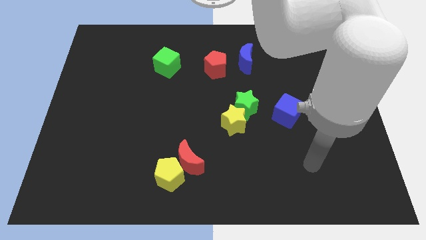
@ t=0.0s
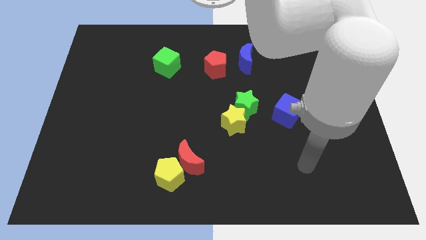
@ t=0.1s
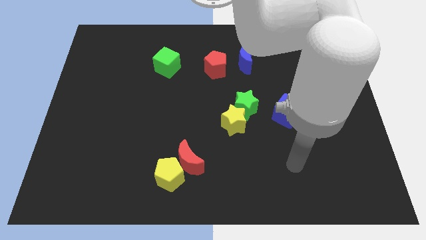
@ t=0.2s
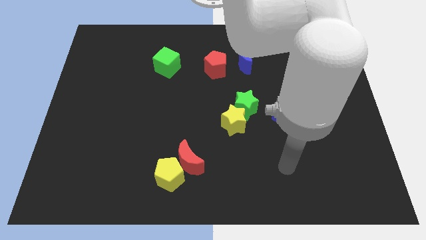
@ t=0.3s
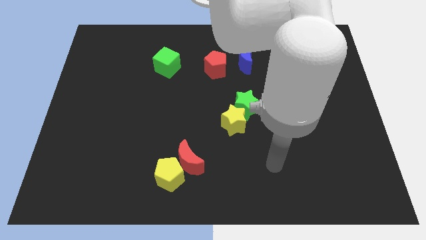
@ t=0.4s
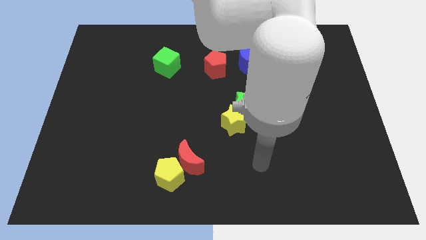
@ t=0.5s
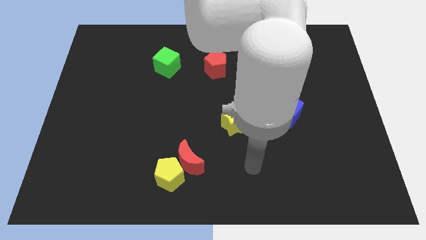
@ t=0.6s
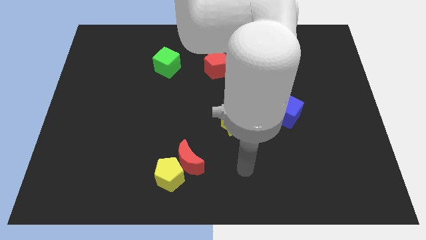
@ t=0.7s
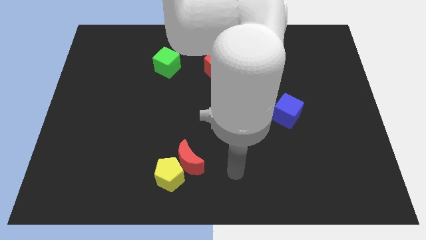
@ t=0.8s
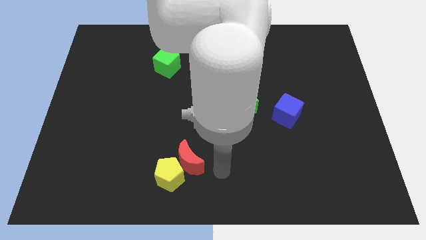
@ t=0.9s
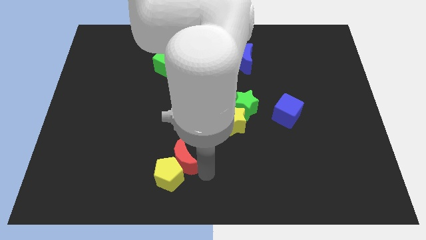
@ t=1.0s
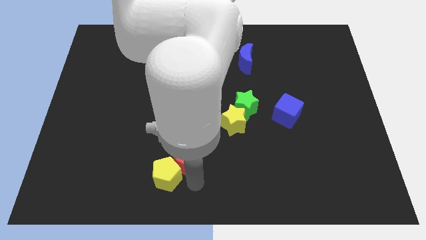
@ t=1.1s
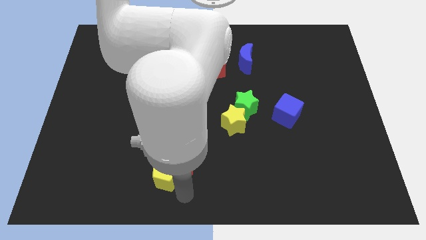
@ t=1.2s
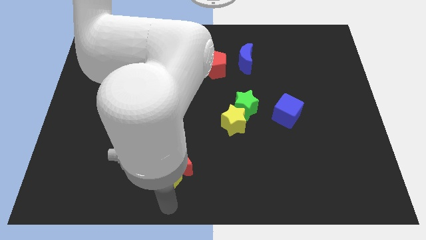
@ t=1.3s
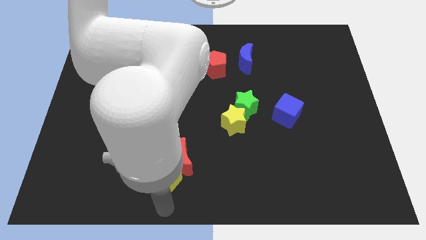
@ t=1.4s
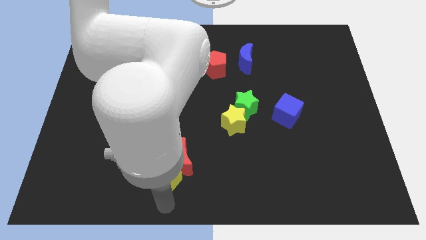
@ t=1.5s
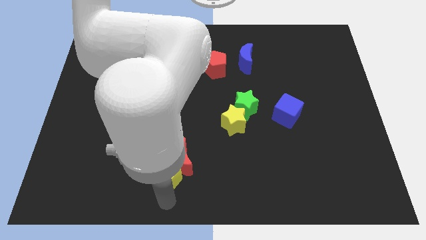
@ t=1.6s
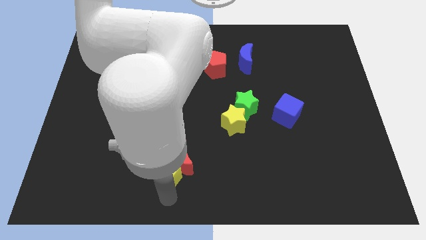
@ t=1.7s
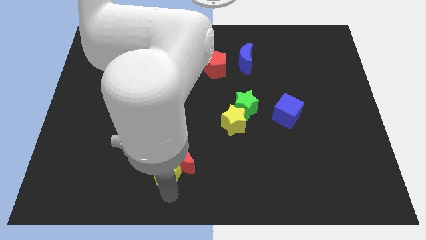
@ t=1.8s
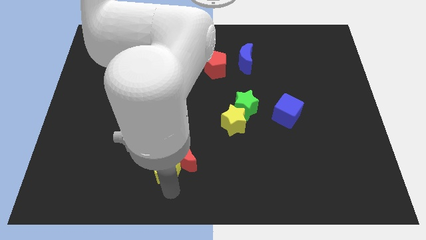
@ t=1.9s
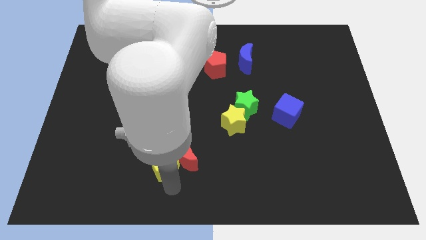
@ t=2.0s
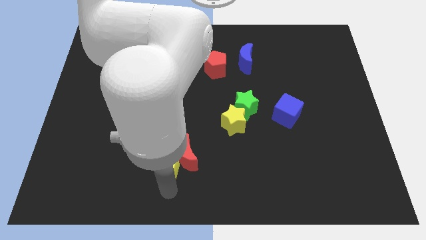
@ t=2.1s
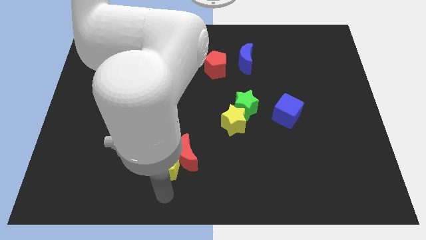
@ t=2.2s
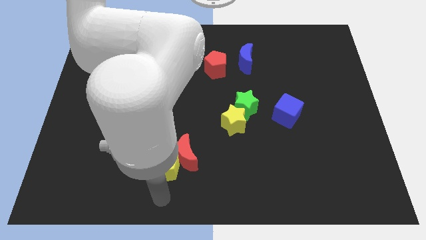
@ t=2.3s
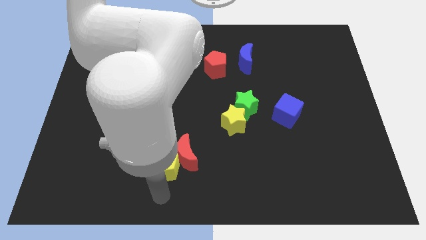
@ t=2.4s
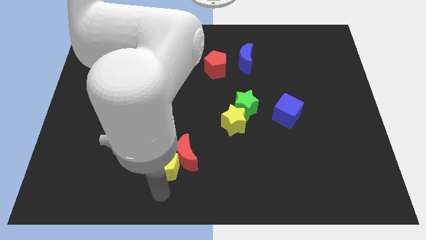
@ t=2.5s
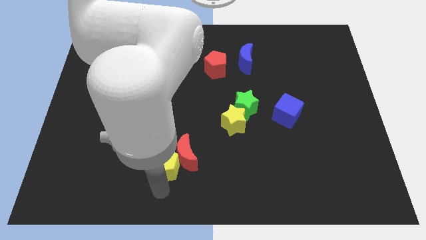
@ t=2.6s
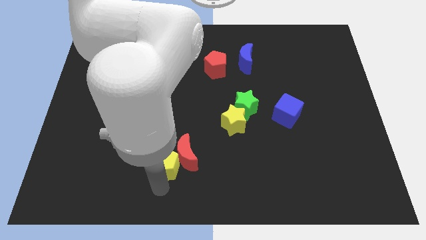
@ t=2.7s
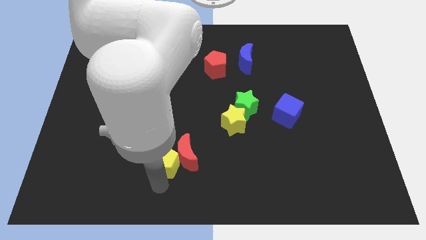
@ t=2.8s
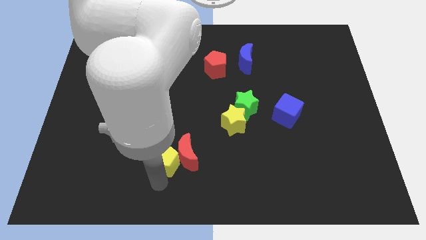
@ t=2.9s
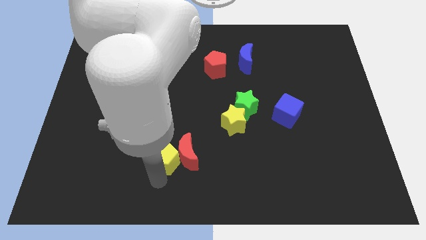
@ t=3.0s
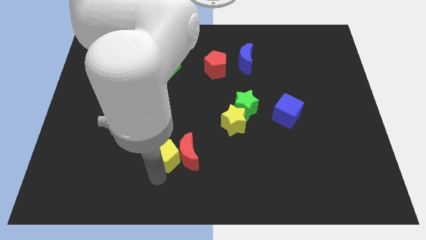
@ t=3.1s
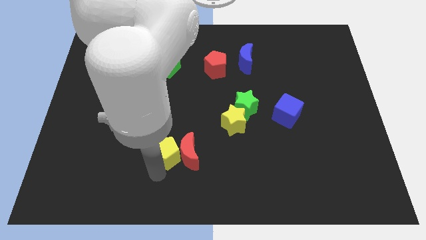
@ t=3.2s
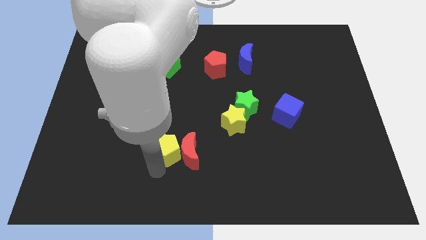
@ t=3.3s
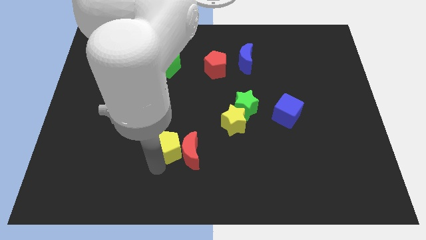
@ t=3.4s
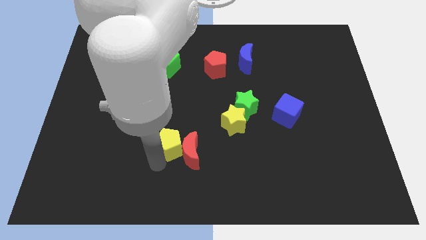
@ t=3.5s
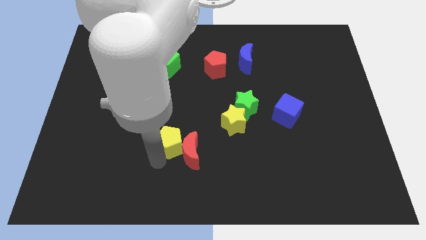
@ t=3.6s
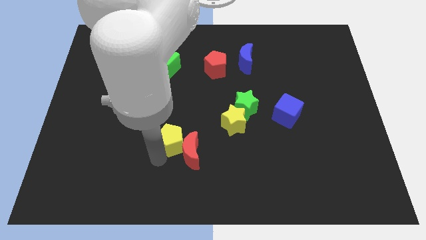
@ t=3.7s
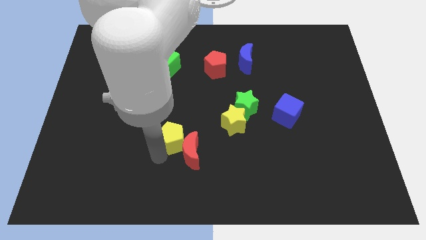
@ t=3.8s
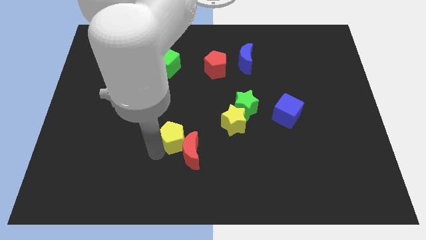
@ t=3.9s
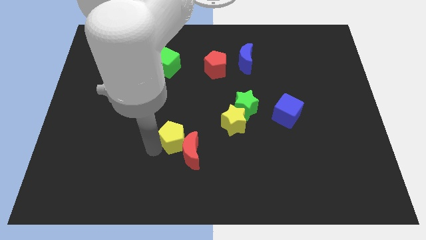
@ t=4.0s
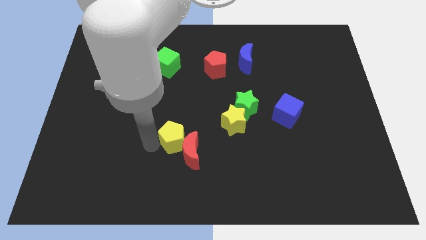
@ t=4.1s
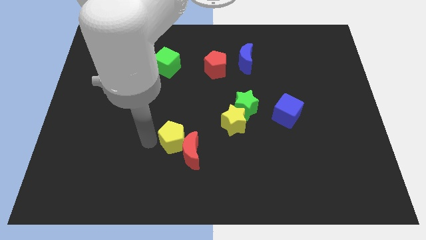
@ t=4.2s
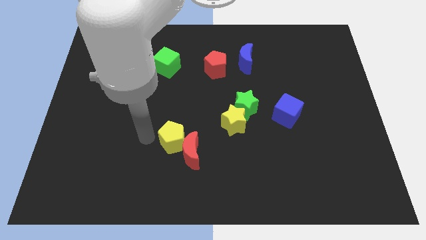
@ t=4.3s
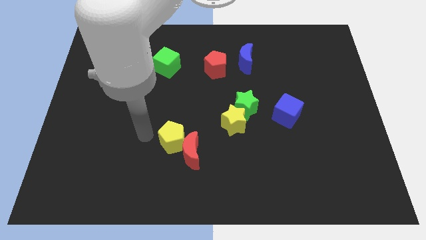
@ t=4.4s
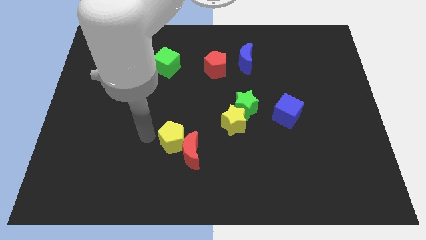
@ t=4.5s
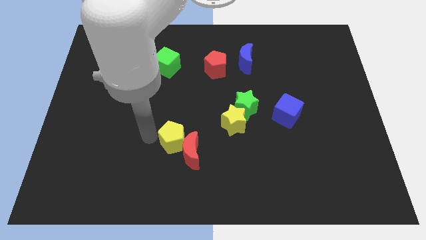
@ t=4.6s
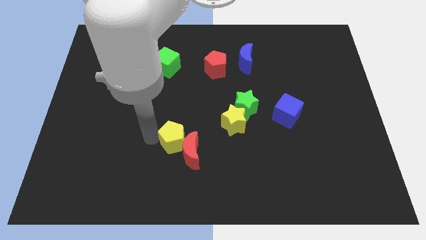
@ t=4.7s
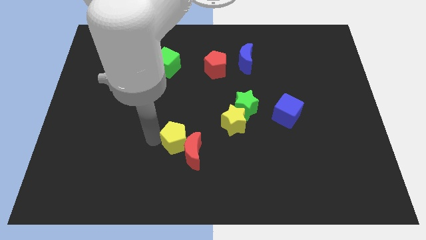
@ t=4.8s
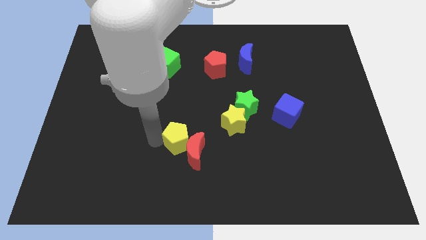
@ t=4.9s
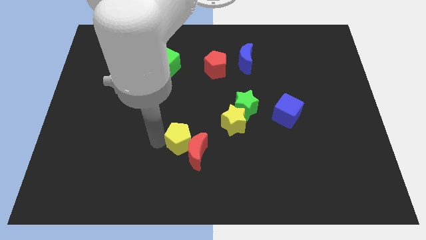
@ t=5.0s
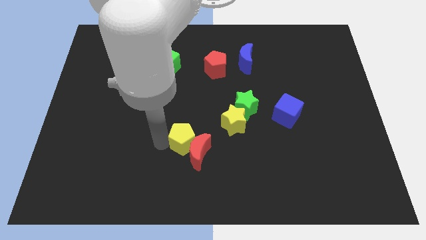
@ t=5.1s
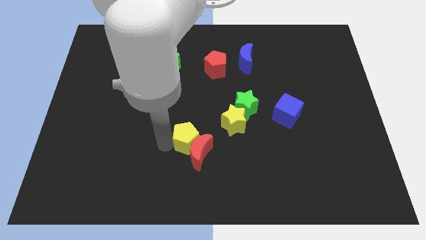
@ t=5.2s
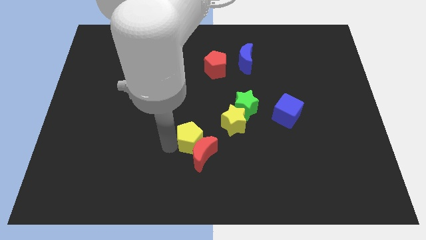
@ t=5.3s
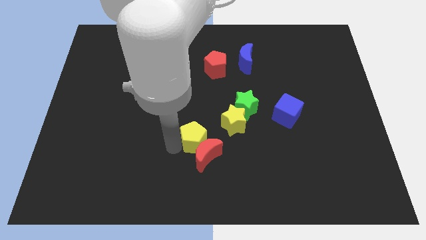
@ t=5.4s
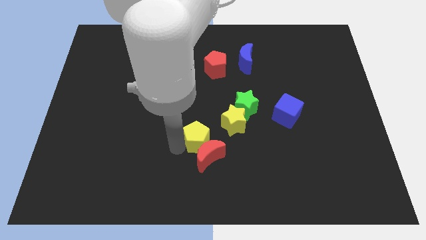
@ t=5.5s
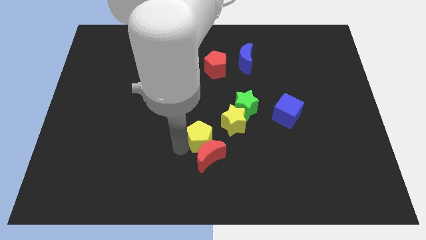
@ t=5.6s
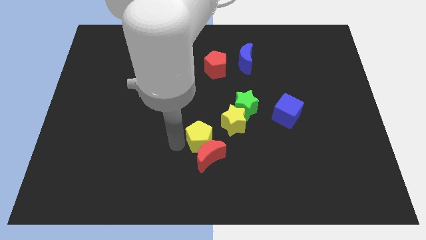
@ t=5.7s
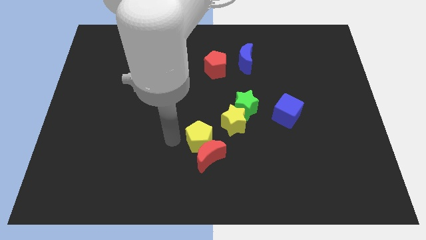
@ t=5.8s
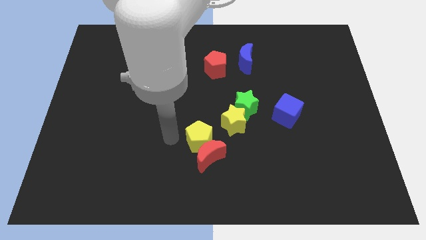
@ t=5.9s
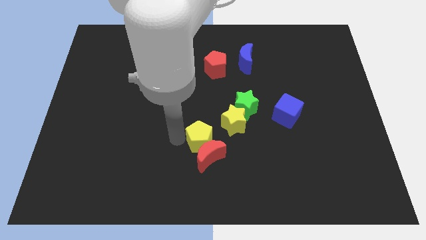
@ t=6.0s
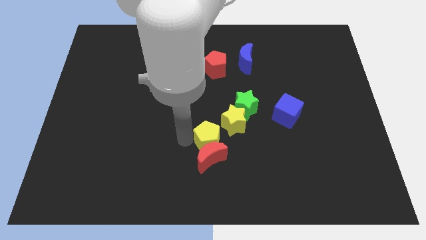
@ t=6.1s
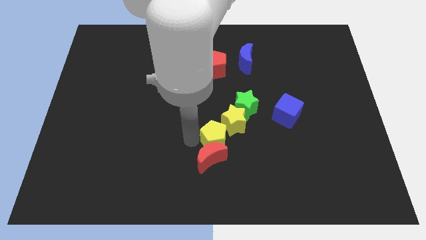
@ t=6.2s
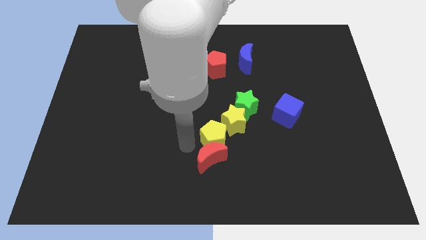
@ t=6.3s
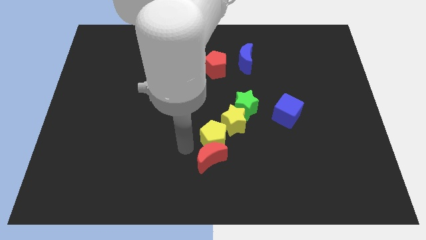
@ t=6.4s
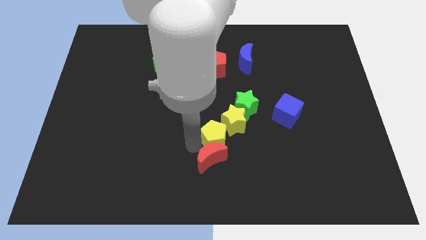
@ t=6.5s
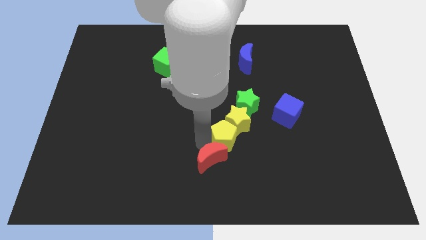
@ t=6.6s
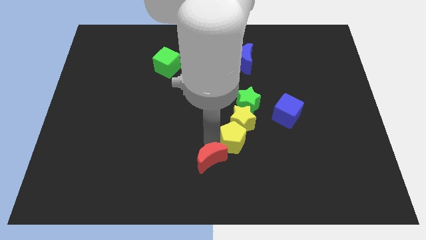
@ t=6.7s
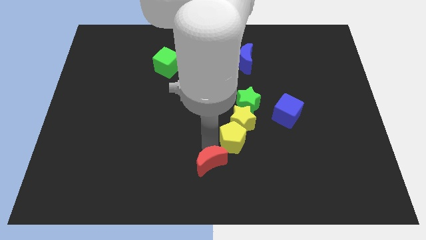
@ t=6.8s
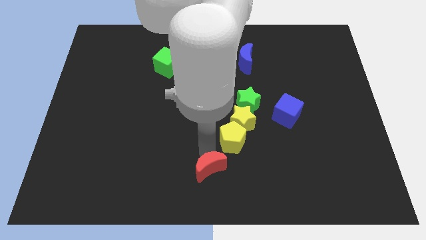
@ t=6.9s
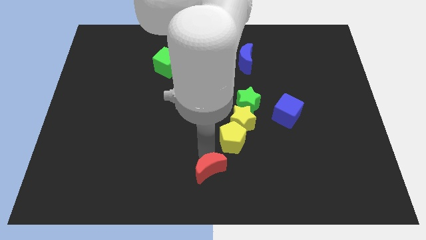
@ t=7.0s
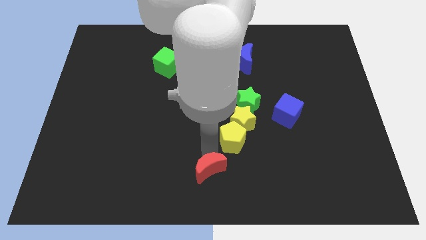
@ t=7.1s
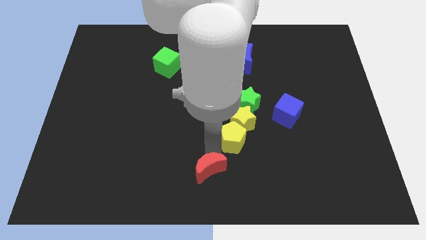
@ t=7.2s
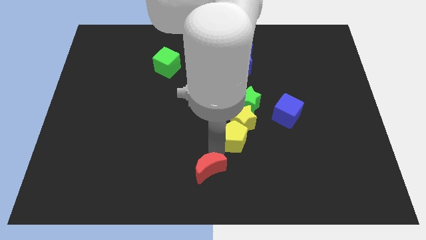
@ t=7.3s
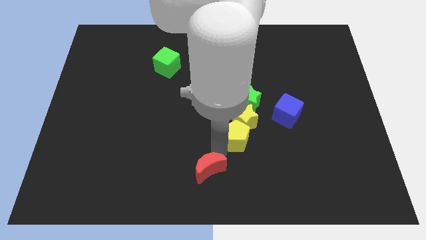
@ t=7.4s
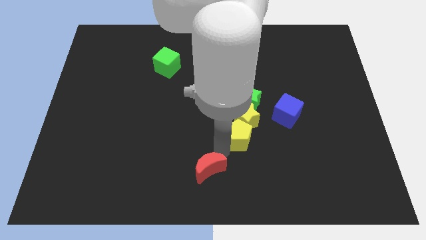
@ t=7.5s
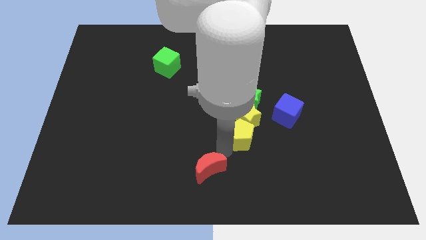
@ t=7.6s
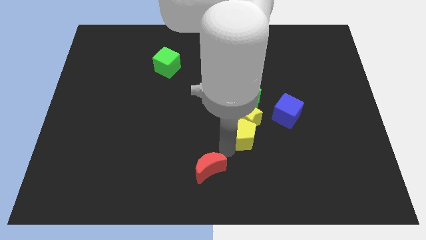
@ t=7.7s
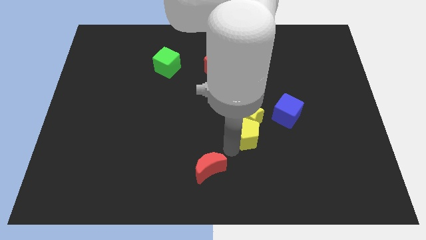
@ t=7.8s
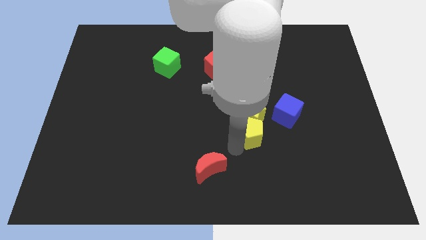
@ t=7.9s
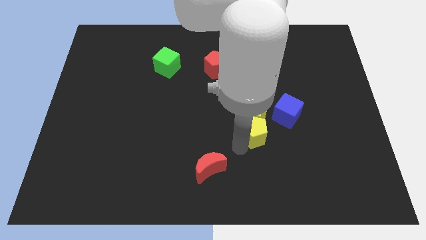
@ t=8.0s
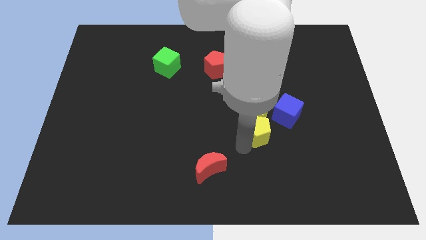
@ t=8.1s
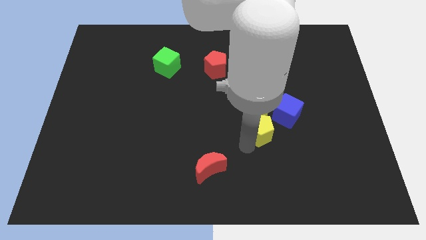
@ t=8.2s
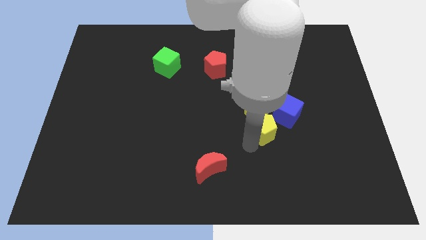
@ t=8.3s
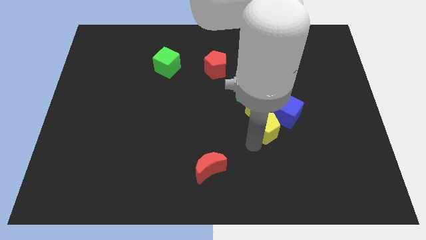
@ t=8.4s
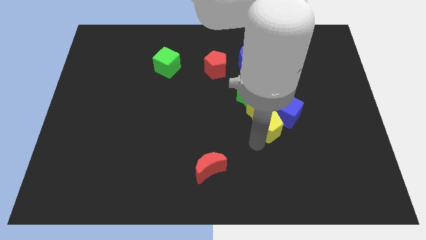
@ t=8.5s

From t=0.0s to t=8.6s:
slide the yellow pentagon diagonally down and to the right of the green star
